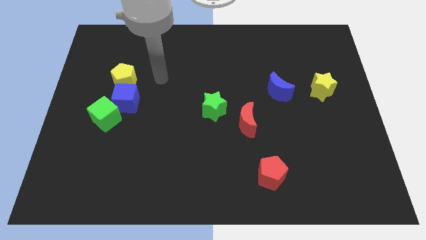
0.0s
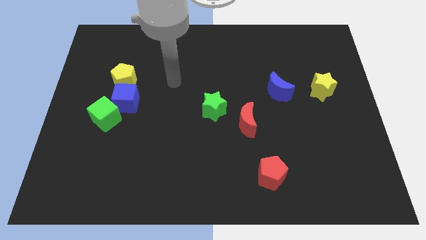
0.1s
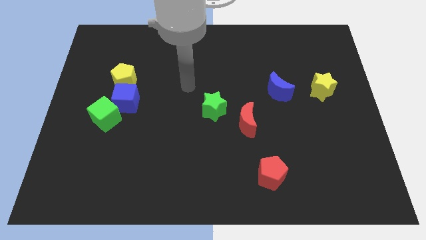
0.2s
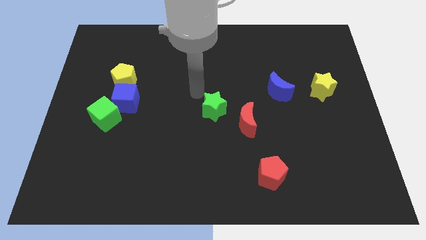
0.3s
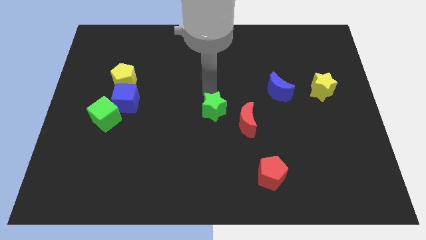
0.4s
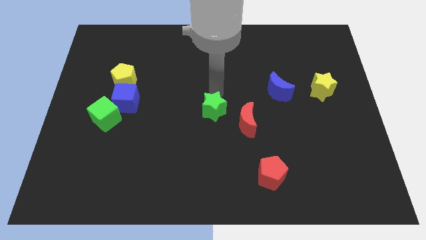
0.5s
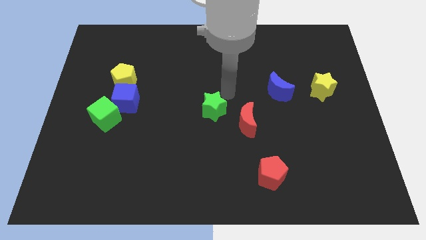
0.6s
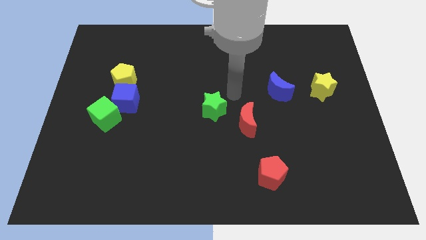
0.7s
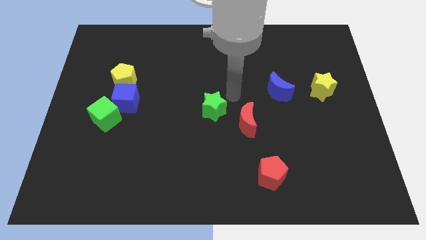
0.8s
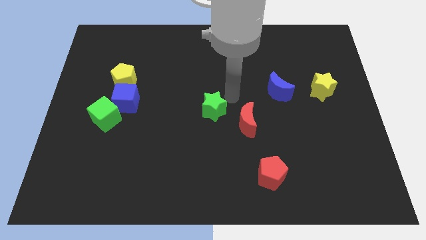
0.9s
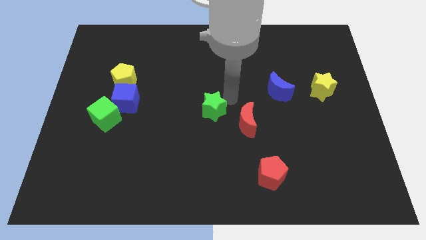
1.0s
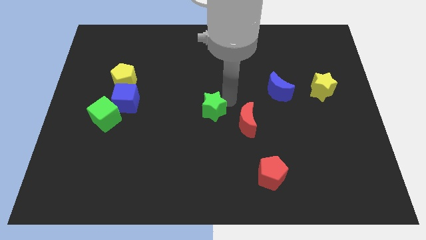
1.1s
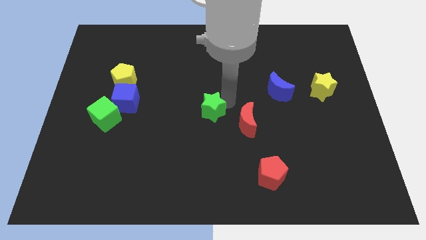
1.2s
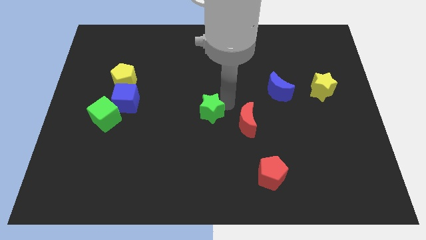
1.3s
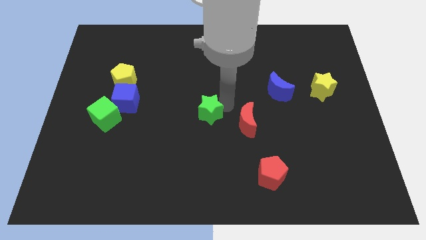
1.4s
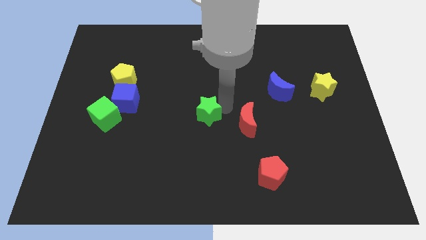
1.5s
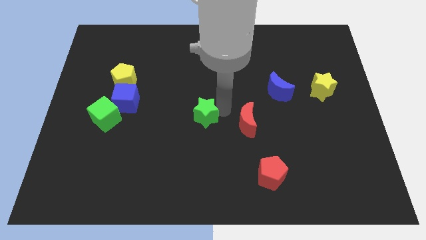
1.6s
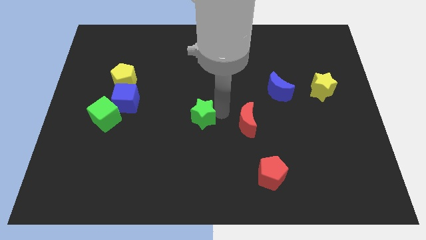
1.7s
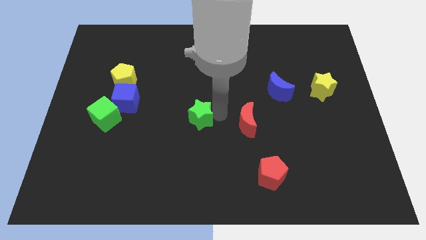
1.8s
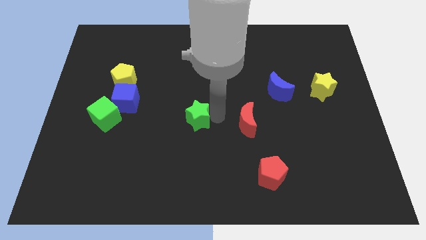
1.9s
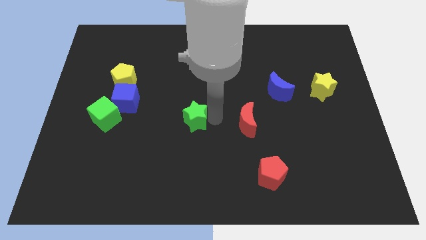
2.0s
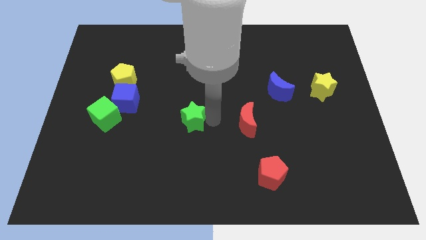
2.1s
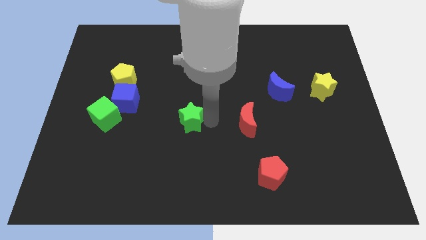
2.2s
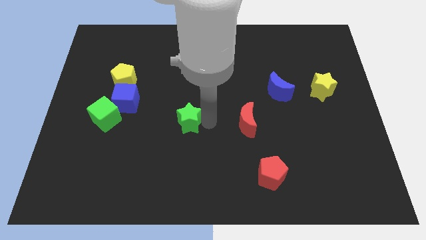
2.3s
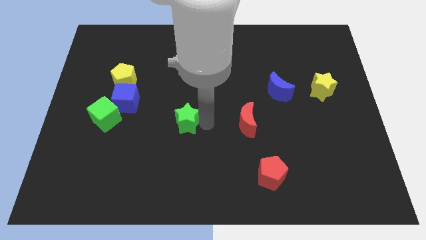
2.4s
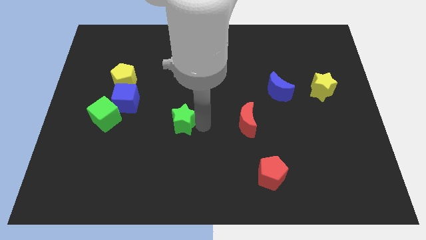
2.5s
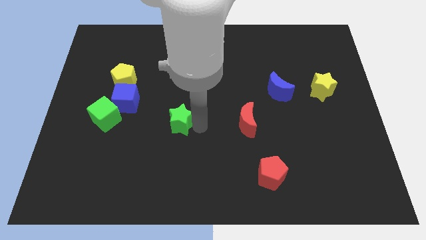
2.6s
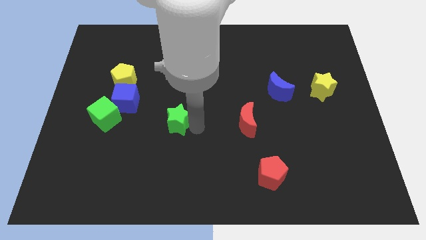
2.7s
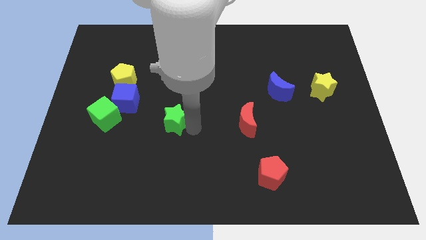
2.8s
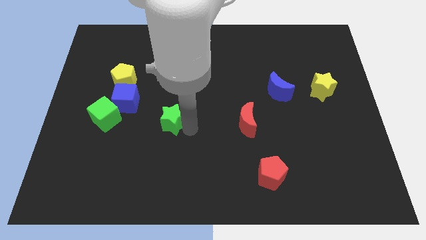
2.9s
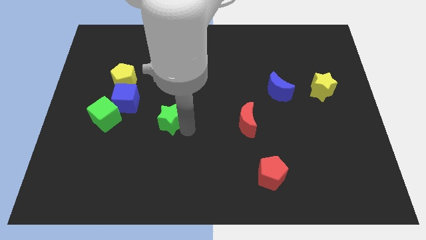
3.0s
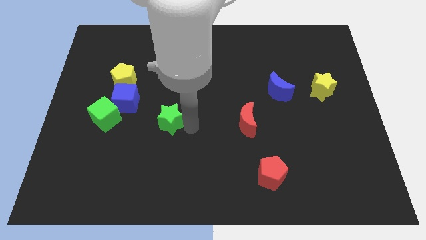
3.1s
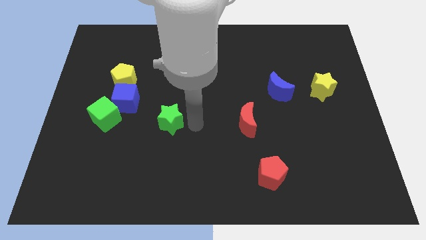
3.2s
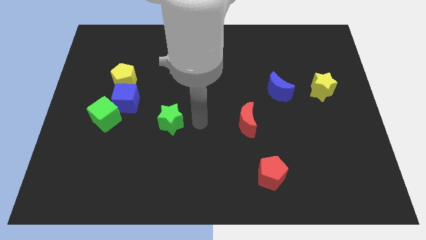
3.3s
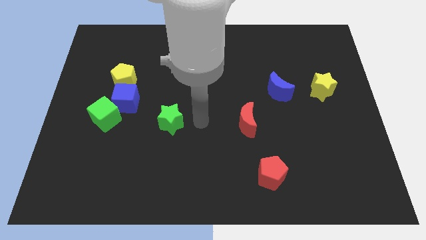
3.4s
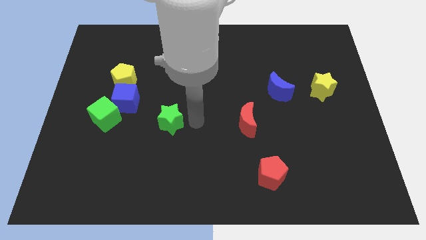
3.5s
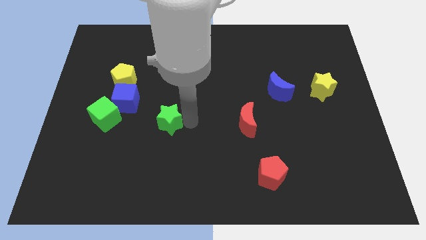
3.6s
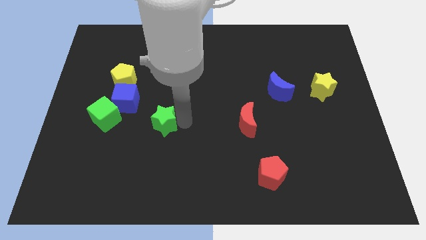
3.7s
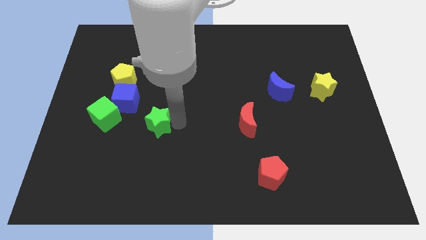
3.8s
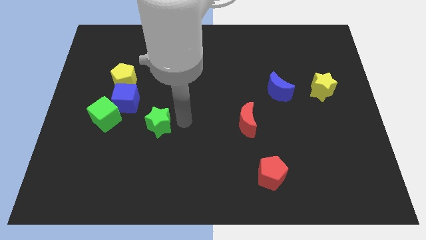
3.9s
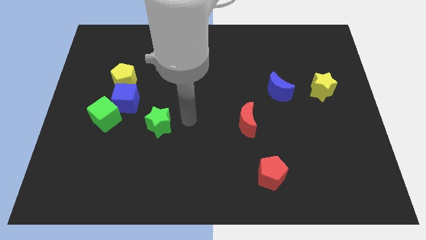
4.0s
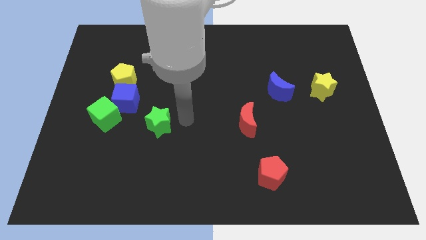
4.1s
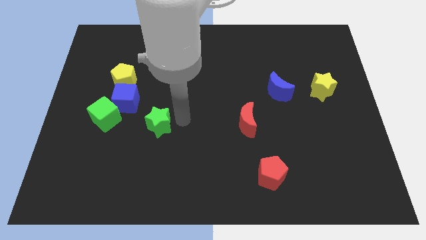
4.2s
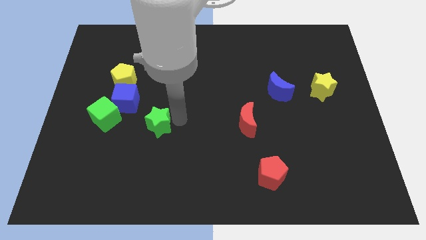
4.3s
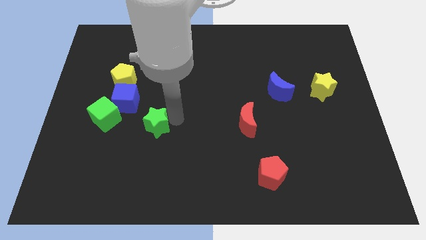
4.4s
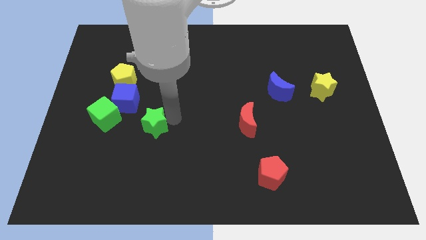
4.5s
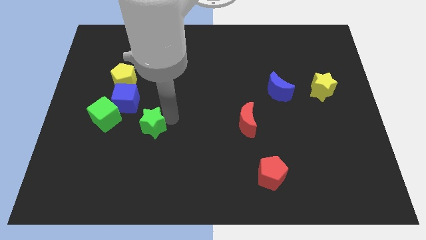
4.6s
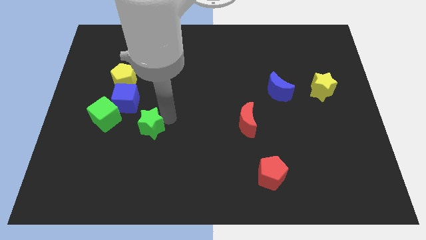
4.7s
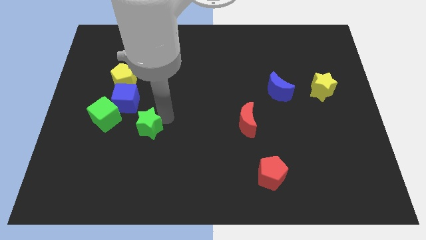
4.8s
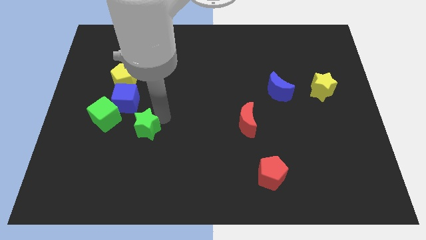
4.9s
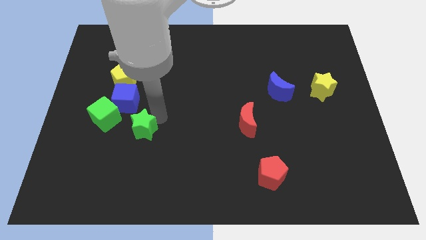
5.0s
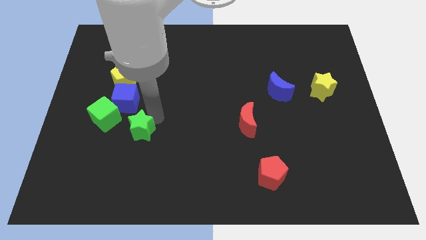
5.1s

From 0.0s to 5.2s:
put the green star to the bottom side of the blue cube
